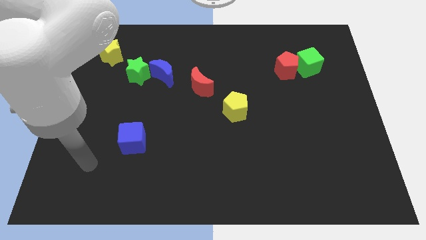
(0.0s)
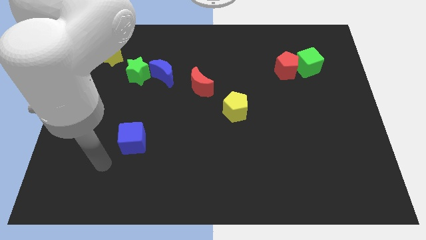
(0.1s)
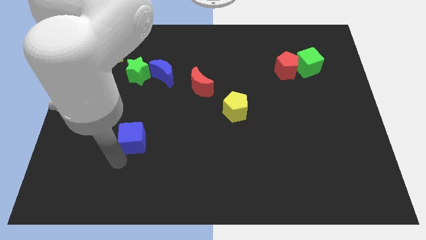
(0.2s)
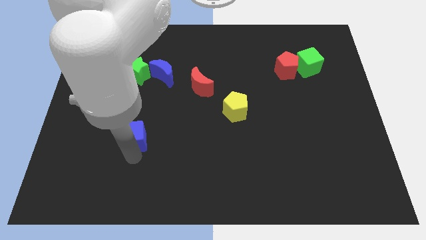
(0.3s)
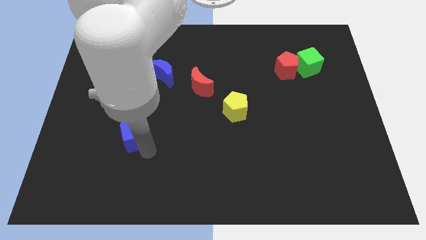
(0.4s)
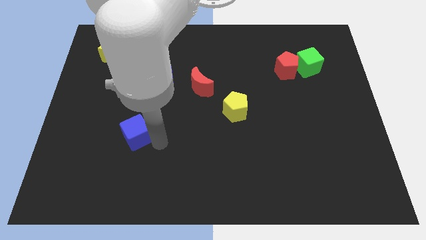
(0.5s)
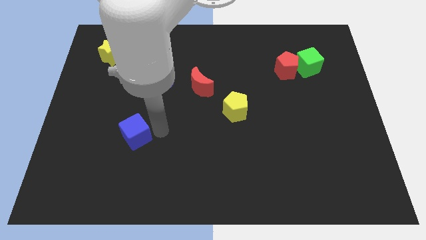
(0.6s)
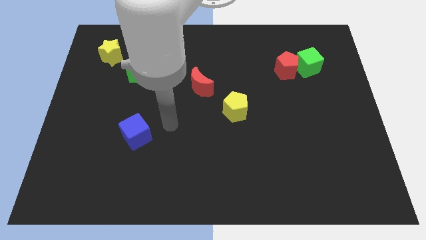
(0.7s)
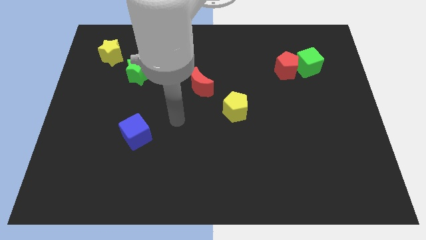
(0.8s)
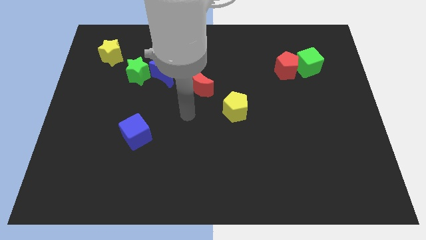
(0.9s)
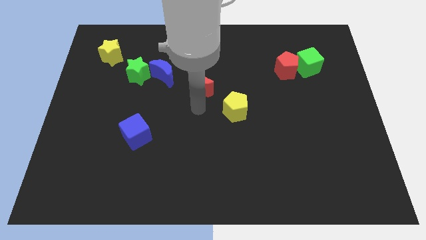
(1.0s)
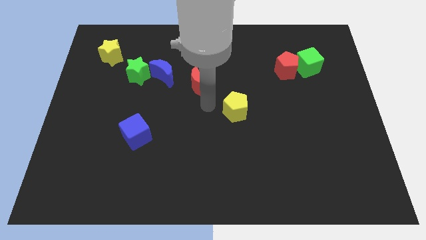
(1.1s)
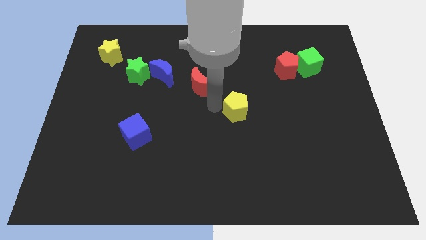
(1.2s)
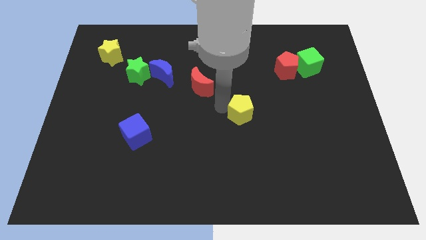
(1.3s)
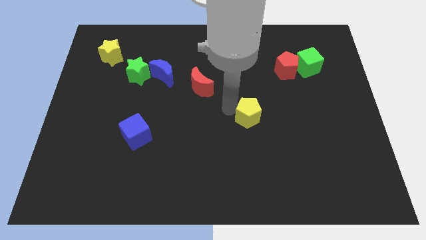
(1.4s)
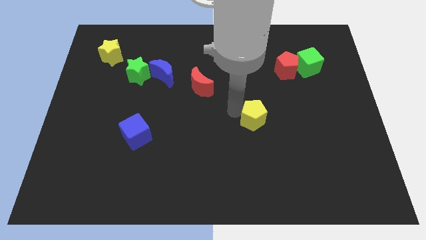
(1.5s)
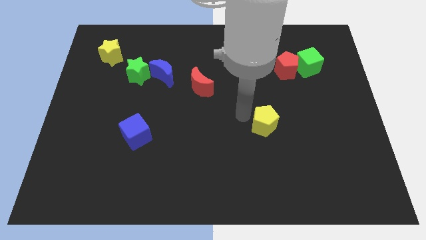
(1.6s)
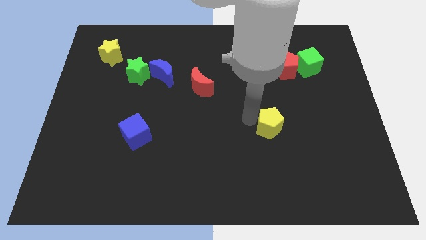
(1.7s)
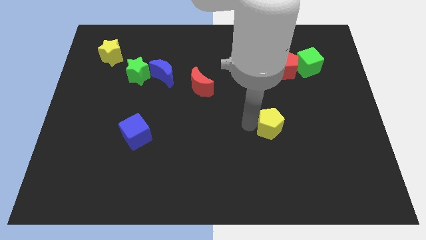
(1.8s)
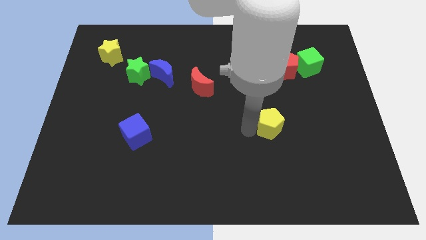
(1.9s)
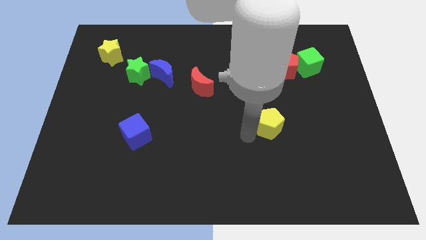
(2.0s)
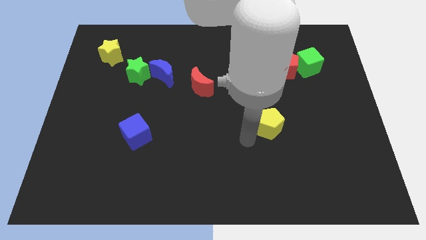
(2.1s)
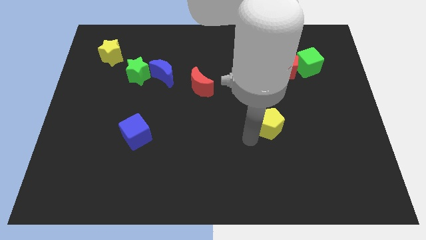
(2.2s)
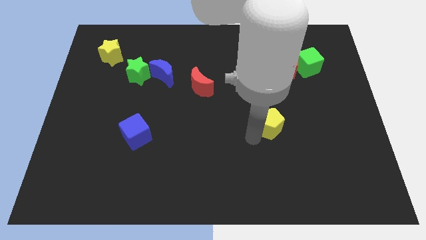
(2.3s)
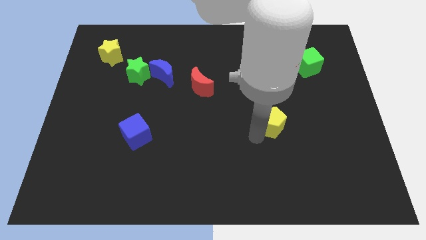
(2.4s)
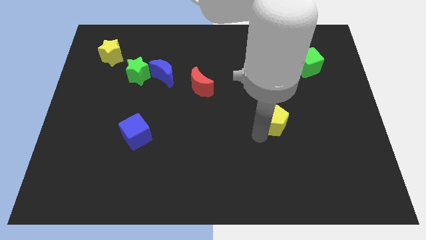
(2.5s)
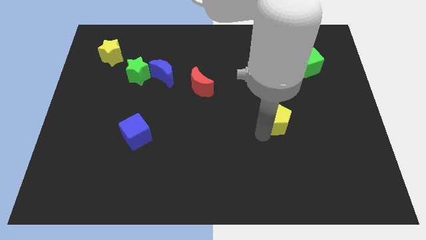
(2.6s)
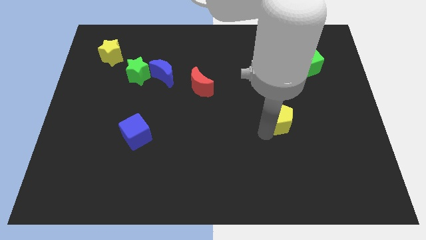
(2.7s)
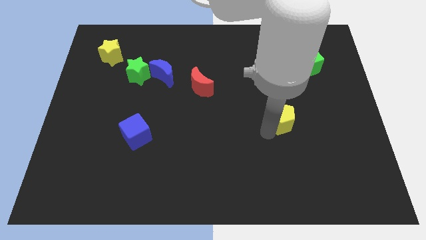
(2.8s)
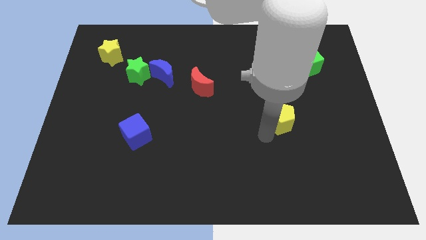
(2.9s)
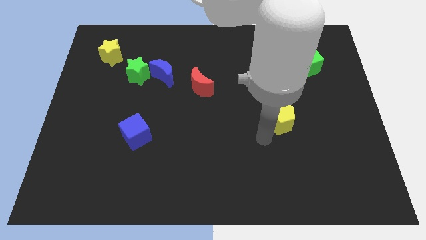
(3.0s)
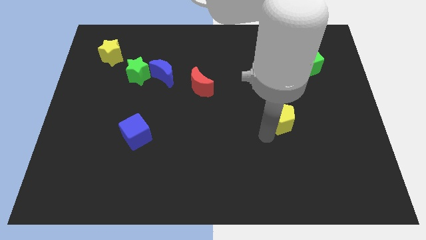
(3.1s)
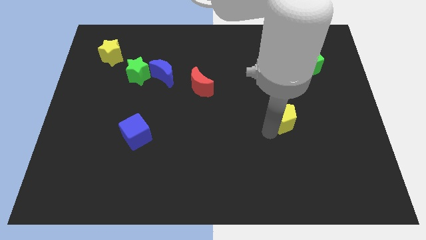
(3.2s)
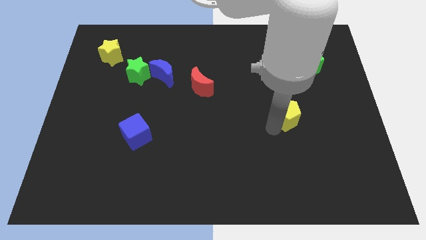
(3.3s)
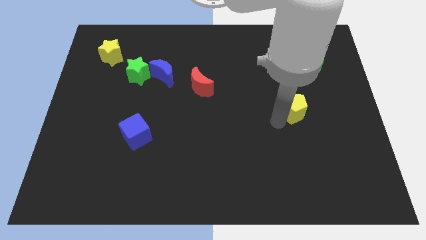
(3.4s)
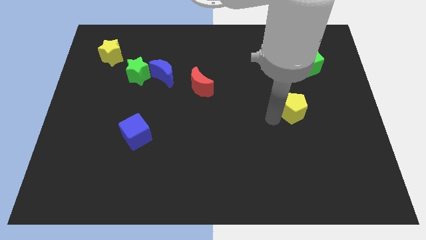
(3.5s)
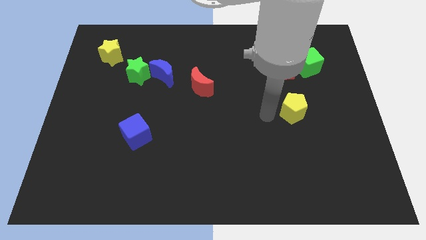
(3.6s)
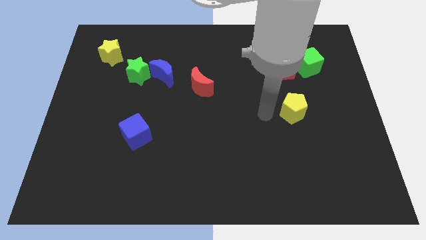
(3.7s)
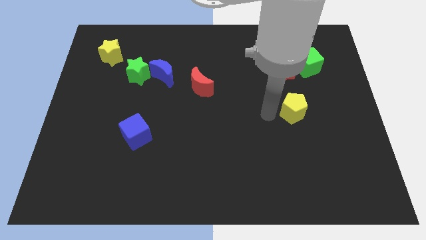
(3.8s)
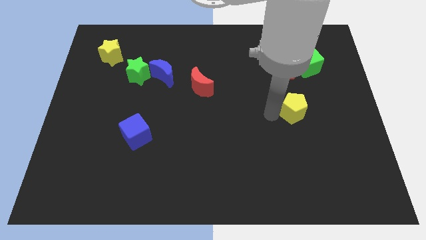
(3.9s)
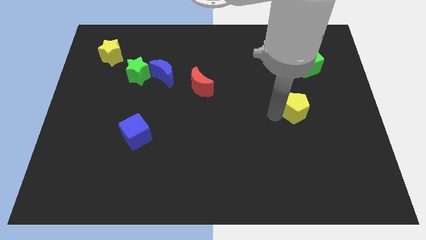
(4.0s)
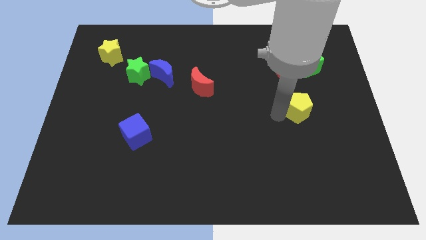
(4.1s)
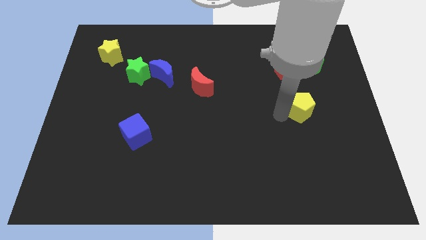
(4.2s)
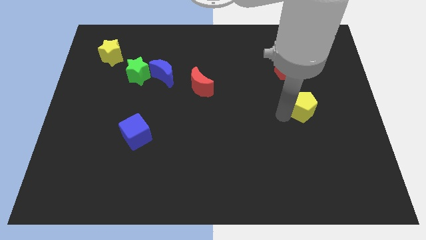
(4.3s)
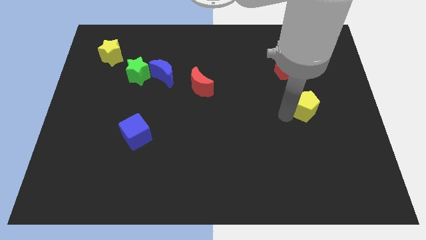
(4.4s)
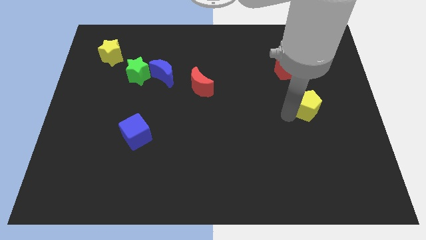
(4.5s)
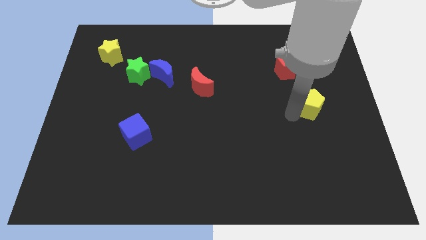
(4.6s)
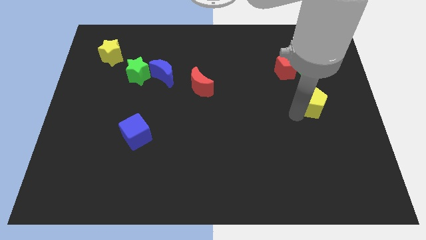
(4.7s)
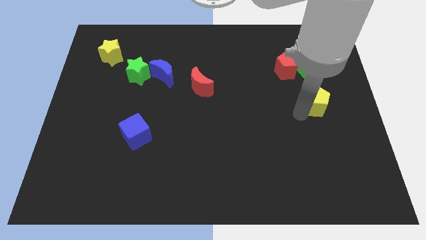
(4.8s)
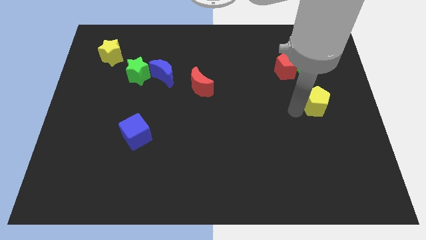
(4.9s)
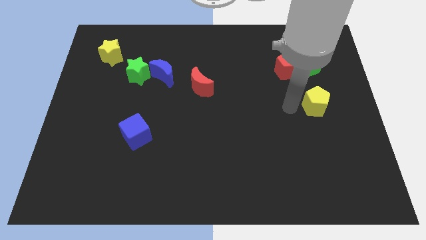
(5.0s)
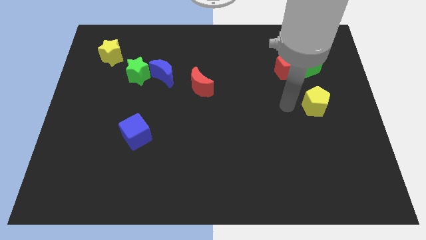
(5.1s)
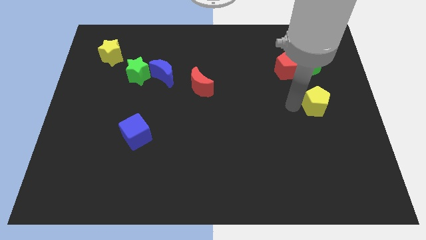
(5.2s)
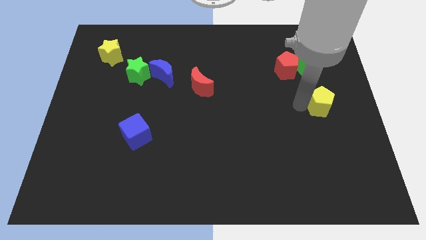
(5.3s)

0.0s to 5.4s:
slide the yellow pentagon to the right side
